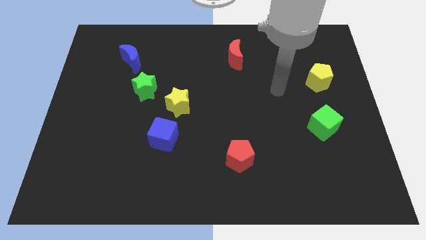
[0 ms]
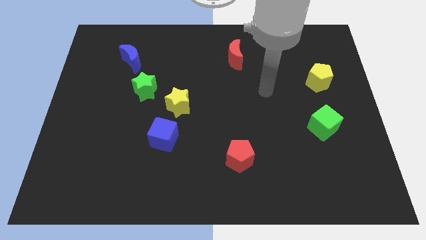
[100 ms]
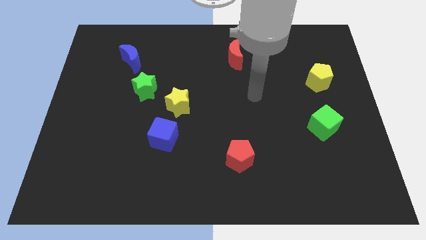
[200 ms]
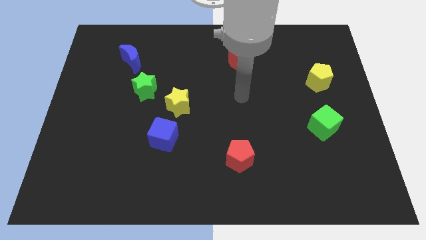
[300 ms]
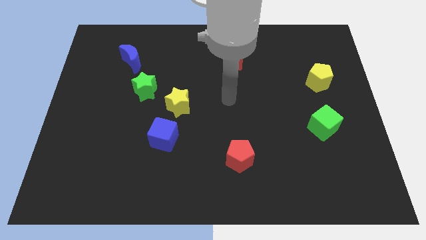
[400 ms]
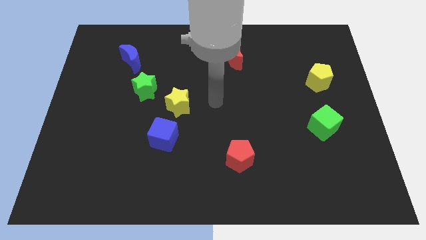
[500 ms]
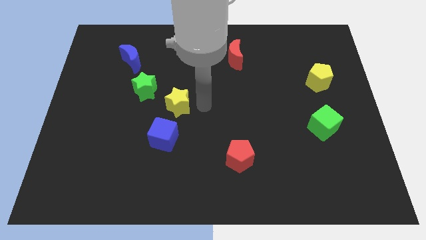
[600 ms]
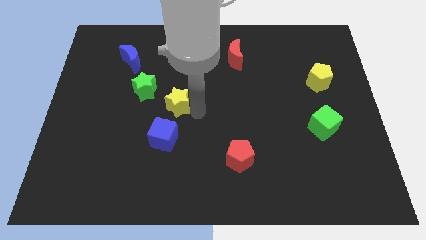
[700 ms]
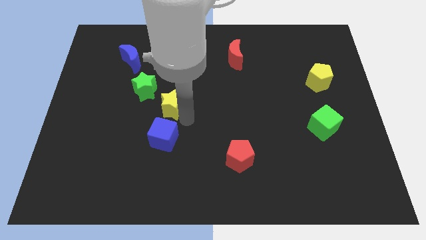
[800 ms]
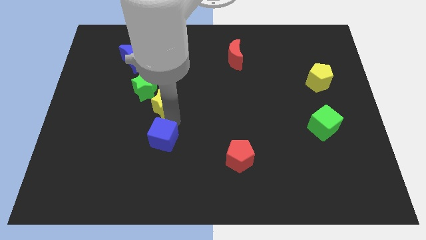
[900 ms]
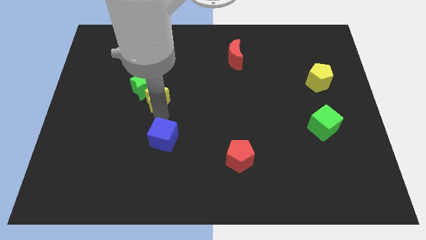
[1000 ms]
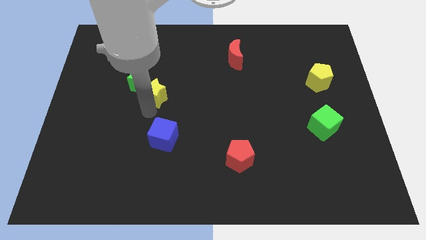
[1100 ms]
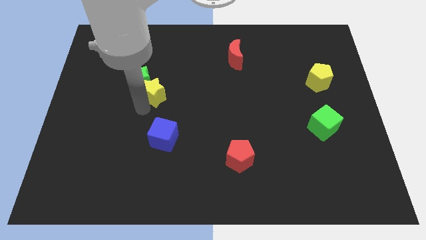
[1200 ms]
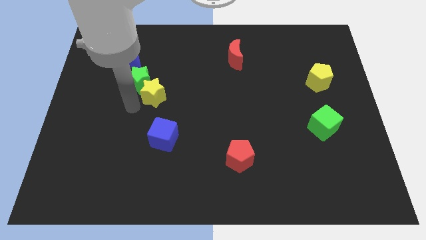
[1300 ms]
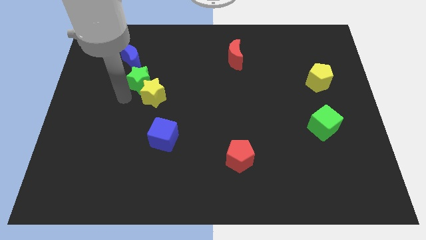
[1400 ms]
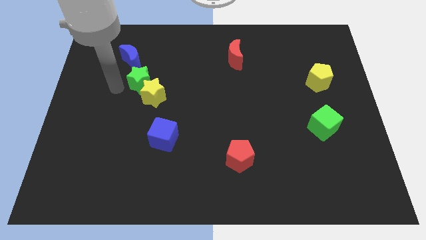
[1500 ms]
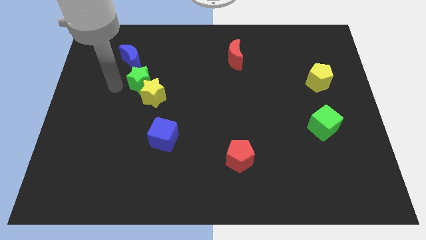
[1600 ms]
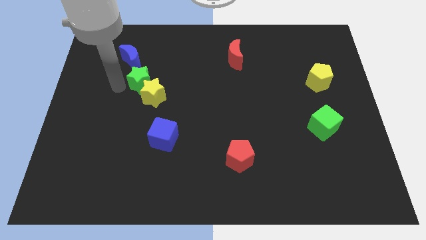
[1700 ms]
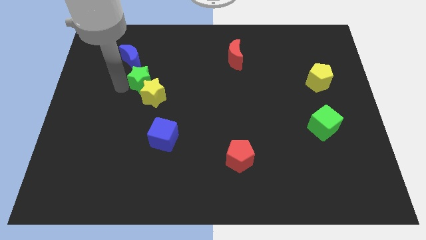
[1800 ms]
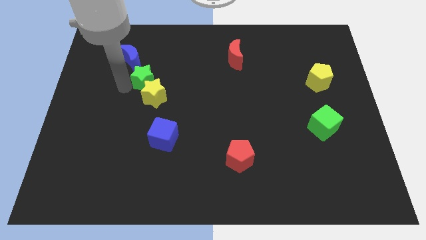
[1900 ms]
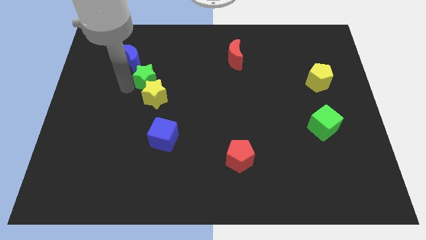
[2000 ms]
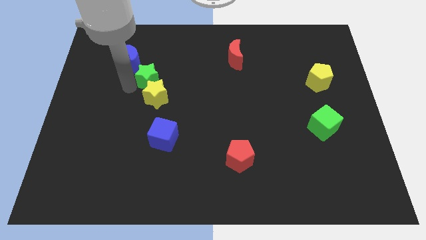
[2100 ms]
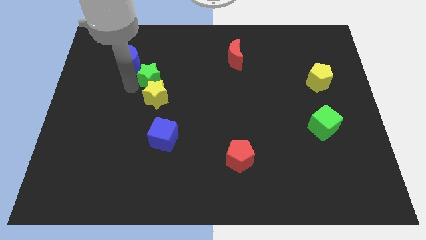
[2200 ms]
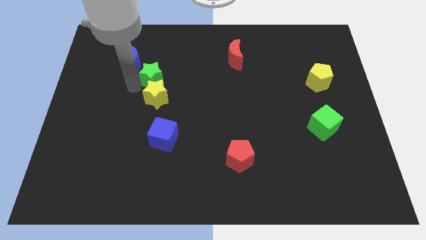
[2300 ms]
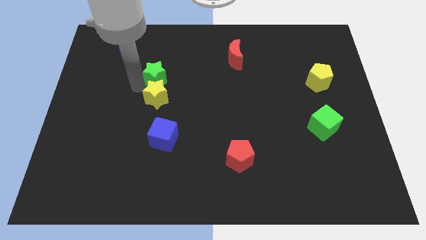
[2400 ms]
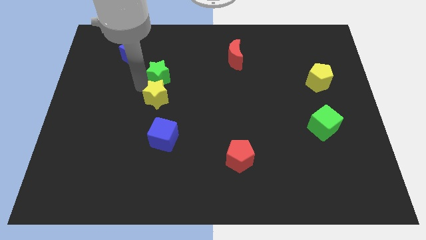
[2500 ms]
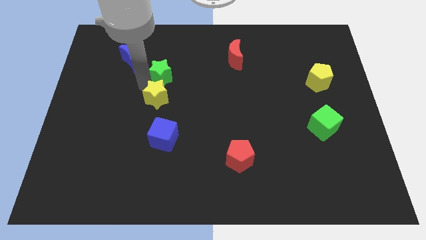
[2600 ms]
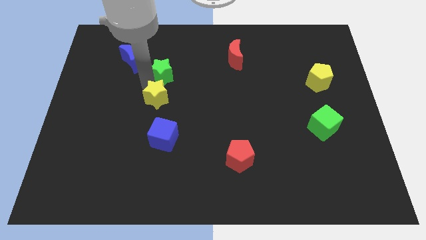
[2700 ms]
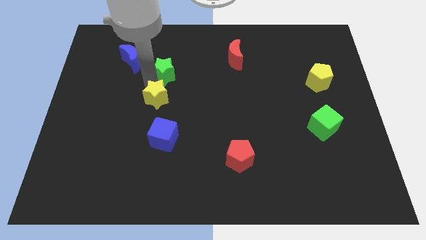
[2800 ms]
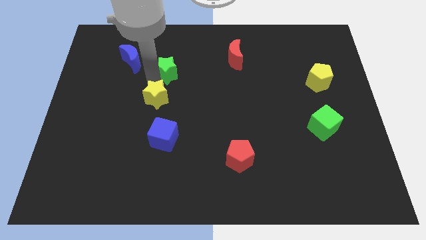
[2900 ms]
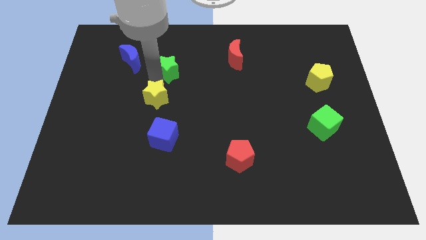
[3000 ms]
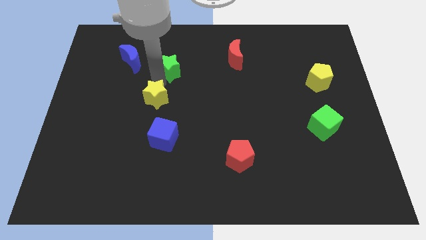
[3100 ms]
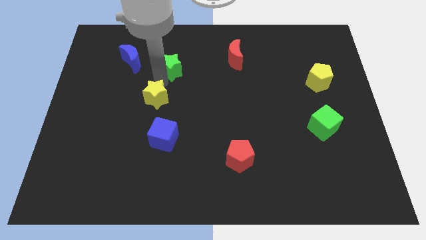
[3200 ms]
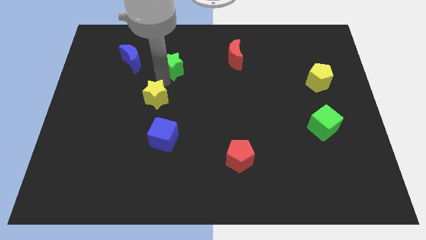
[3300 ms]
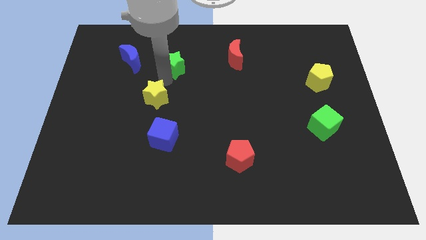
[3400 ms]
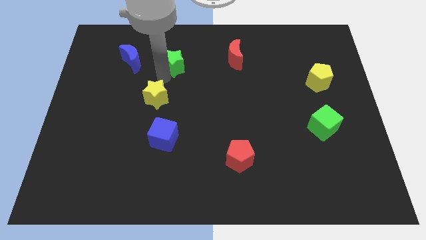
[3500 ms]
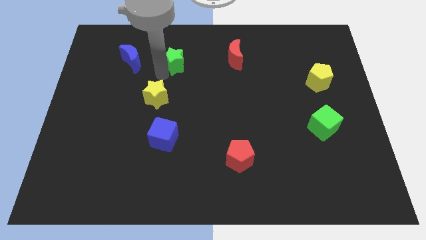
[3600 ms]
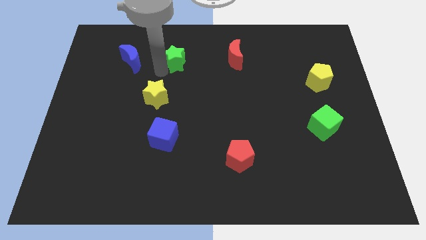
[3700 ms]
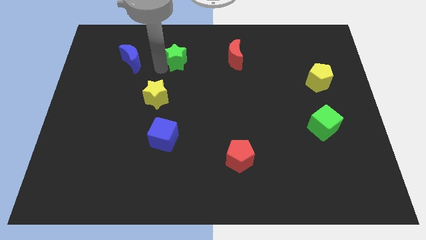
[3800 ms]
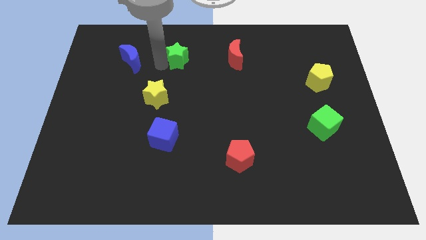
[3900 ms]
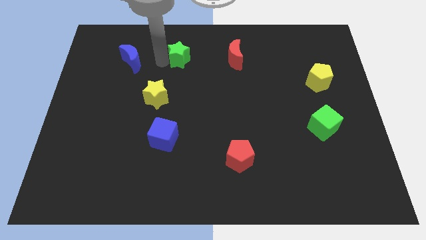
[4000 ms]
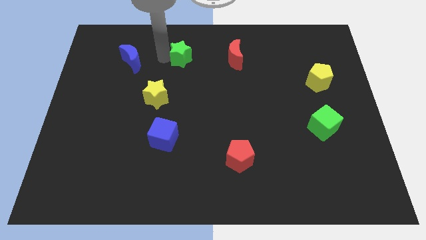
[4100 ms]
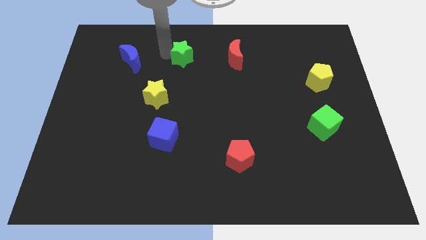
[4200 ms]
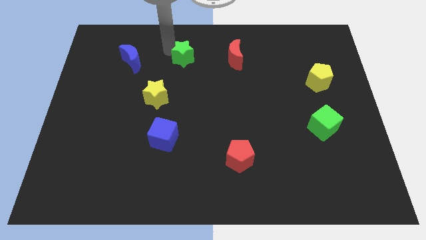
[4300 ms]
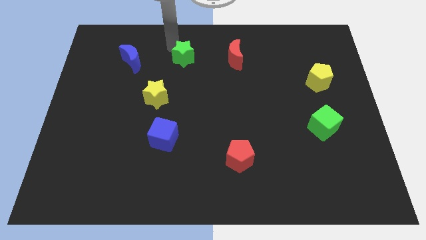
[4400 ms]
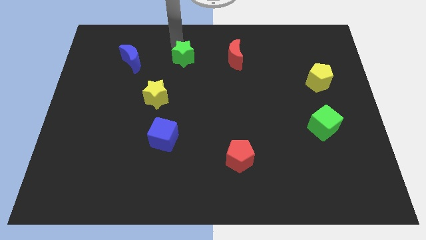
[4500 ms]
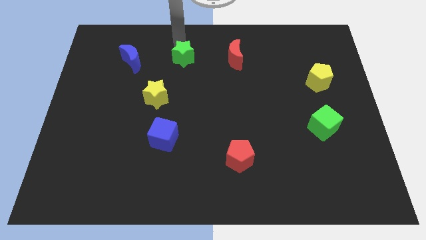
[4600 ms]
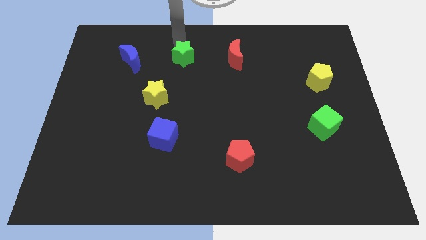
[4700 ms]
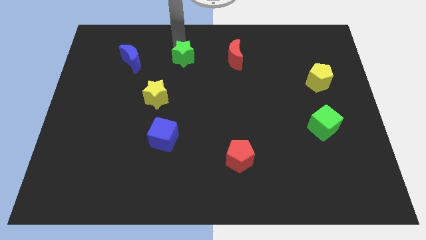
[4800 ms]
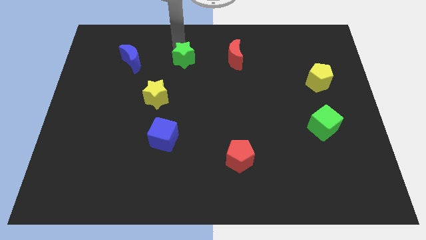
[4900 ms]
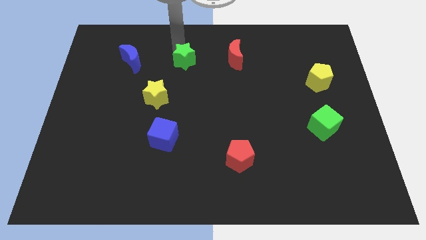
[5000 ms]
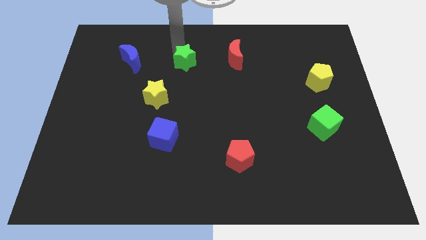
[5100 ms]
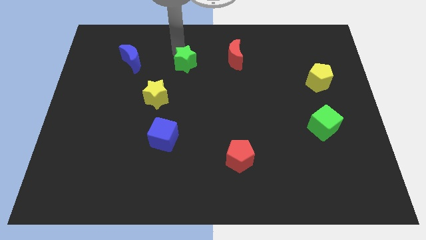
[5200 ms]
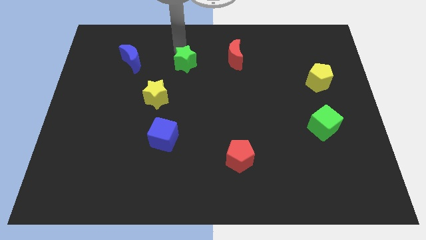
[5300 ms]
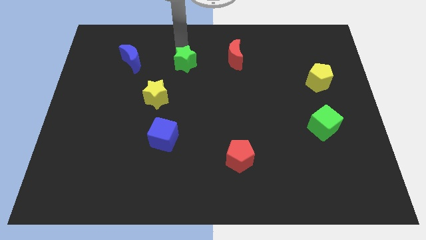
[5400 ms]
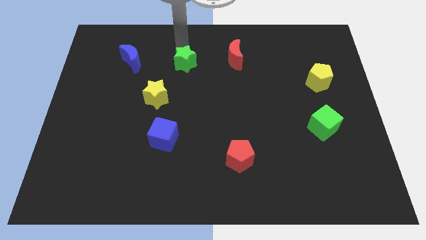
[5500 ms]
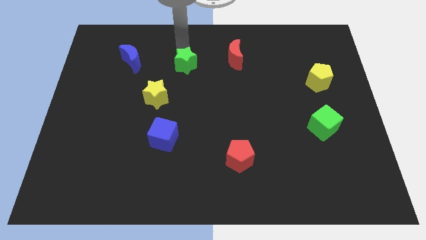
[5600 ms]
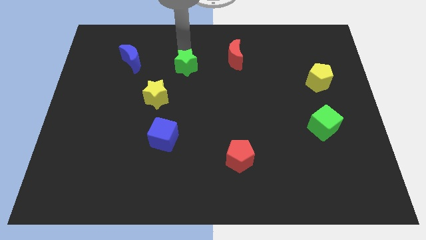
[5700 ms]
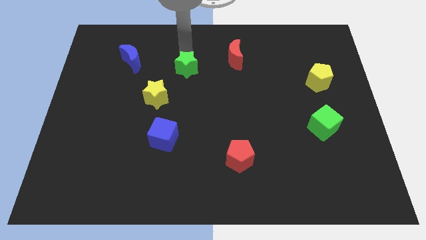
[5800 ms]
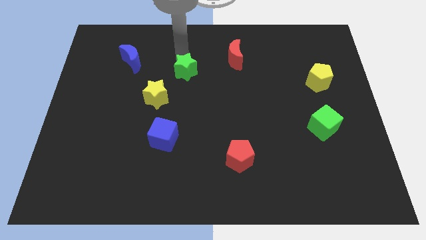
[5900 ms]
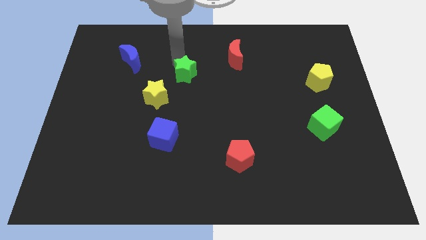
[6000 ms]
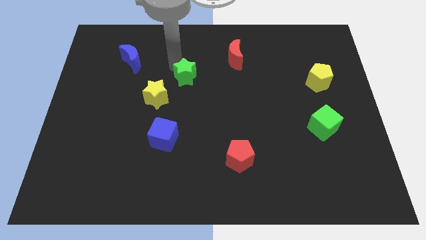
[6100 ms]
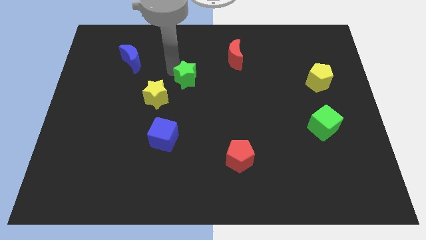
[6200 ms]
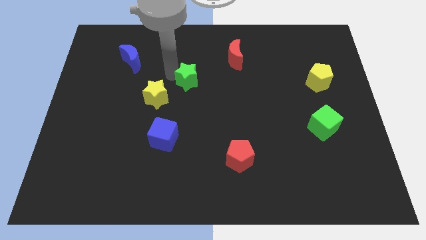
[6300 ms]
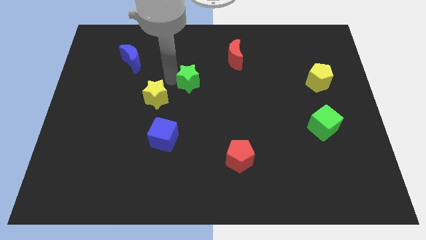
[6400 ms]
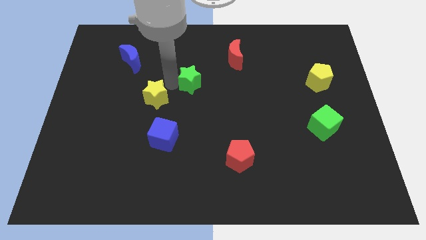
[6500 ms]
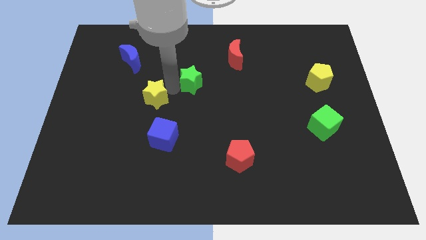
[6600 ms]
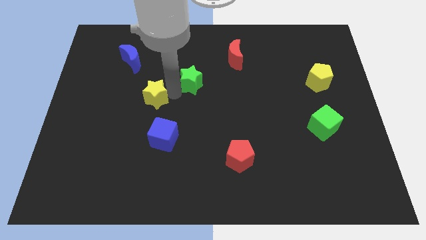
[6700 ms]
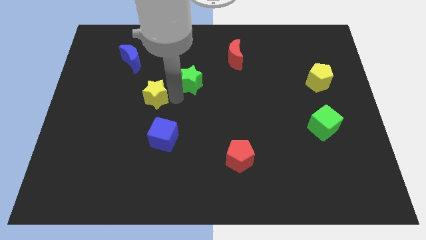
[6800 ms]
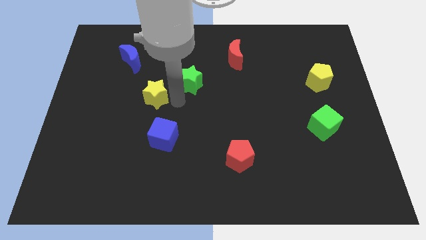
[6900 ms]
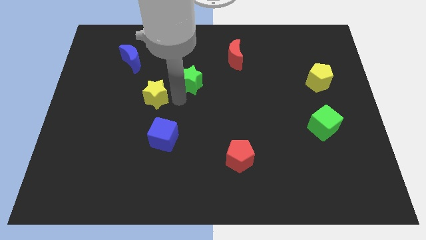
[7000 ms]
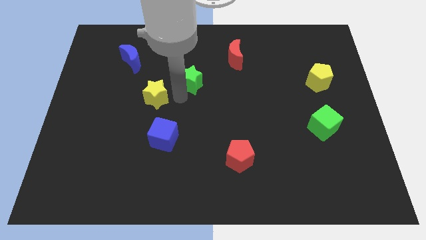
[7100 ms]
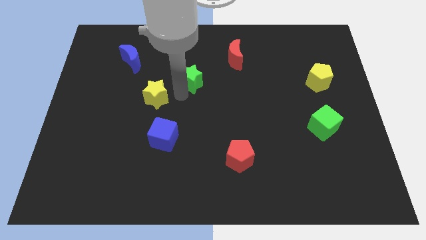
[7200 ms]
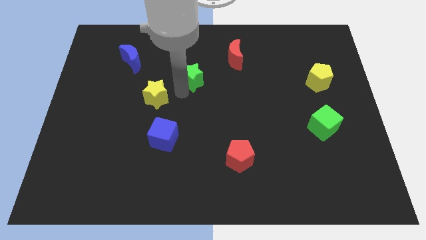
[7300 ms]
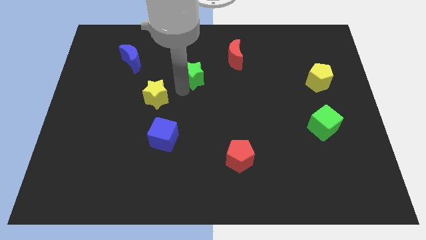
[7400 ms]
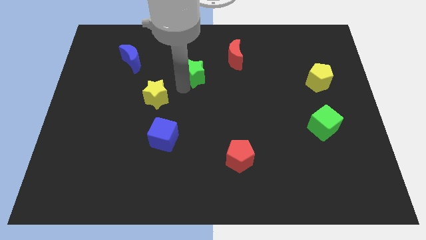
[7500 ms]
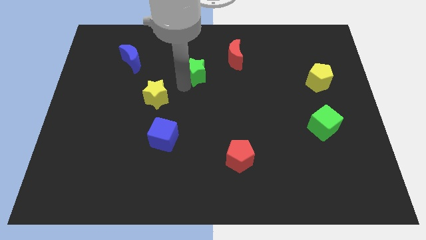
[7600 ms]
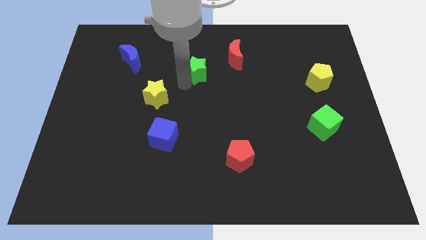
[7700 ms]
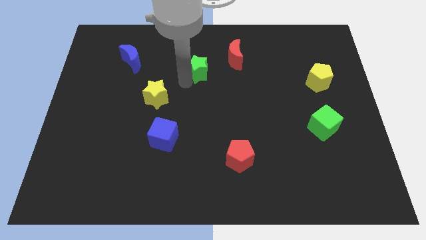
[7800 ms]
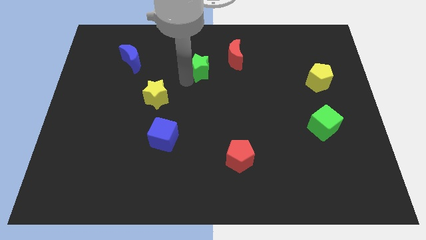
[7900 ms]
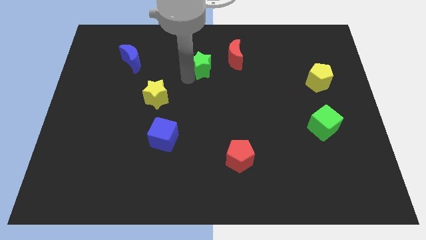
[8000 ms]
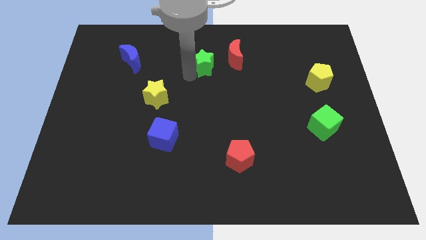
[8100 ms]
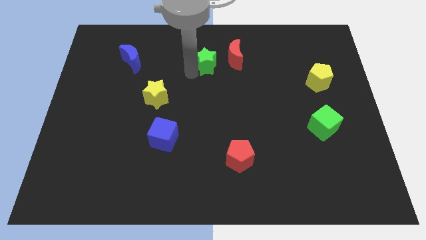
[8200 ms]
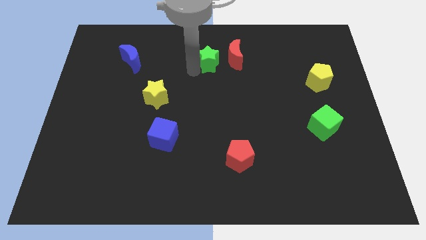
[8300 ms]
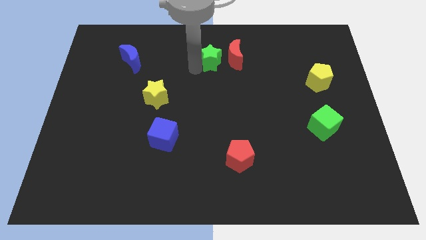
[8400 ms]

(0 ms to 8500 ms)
put the green star next to the red moon
